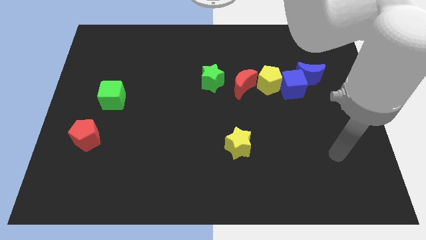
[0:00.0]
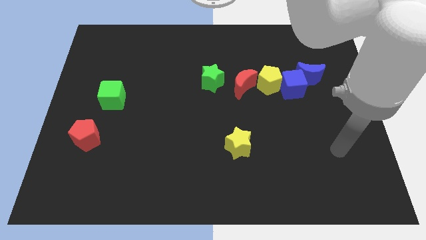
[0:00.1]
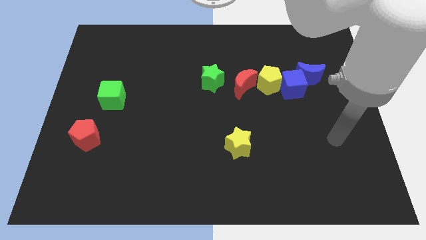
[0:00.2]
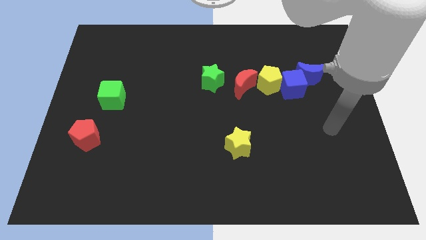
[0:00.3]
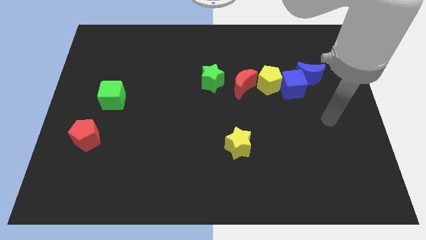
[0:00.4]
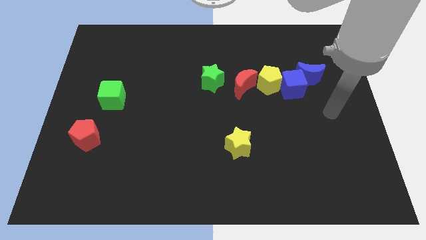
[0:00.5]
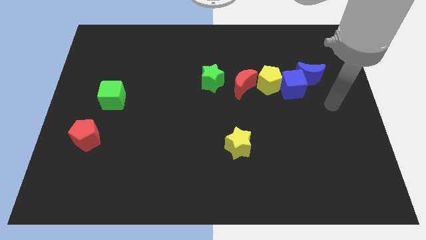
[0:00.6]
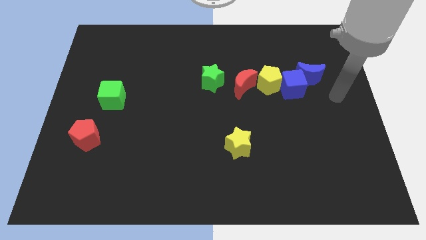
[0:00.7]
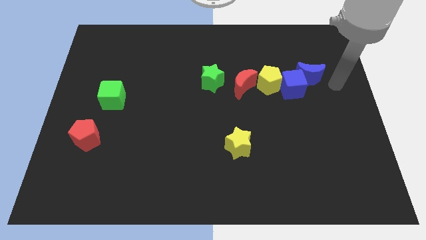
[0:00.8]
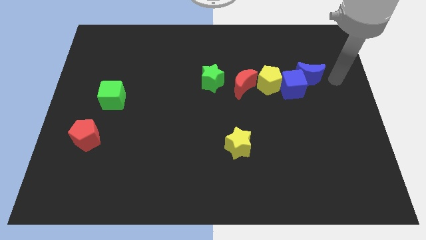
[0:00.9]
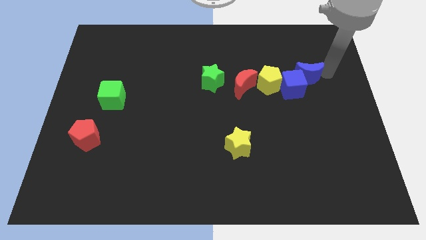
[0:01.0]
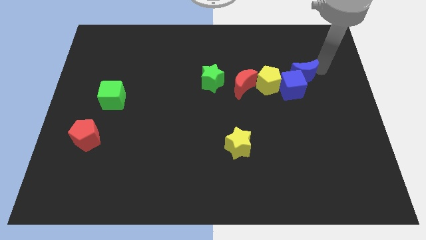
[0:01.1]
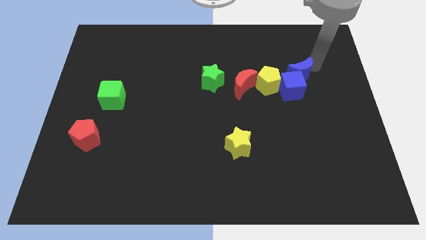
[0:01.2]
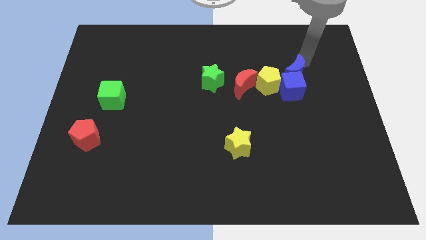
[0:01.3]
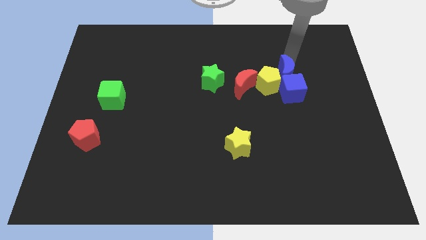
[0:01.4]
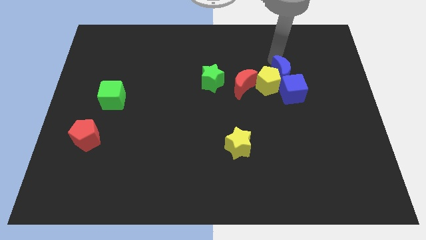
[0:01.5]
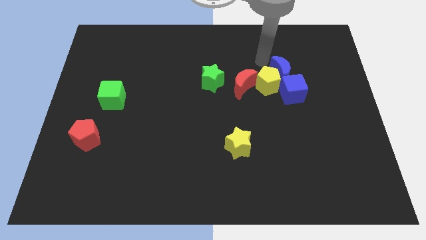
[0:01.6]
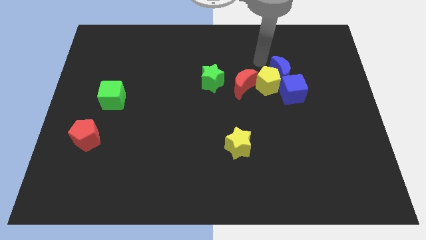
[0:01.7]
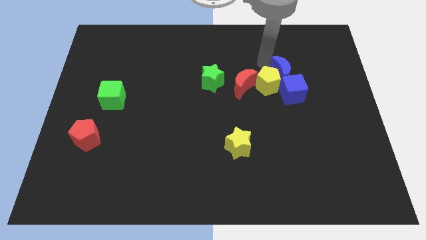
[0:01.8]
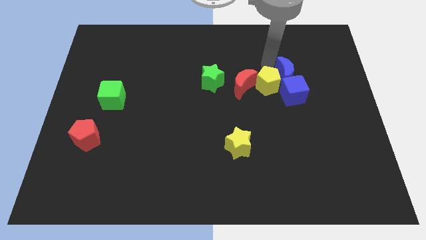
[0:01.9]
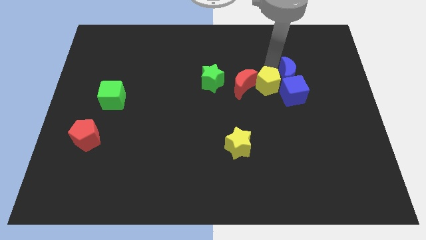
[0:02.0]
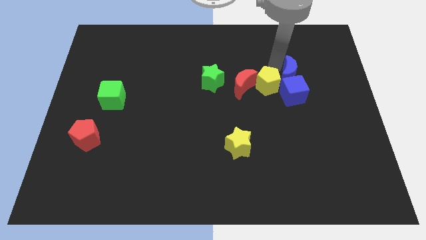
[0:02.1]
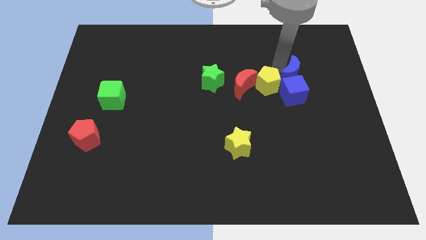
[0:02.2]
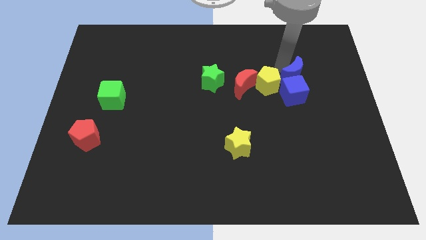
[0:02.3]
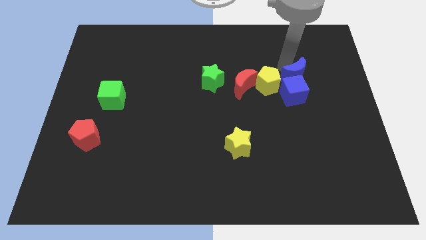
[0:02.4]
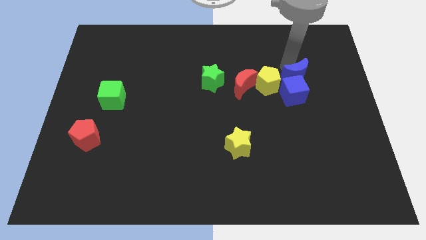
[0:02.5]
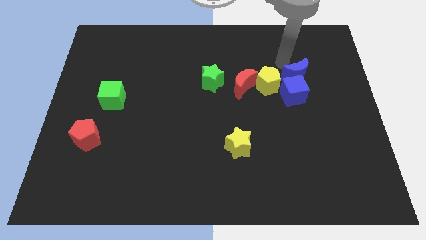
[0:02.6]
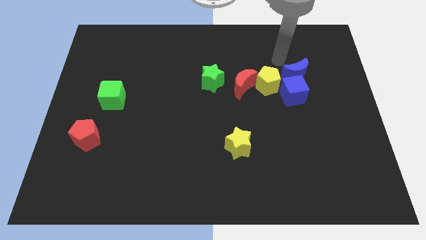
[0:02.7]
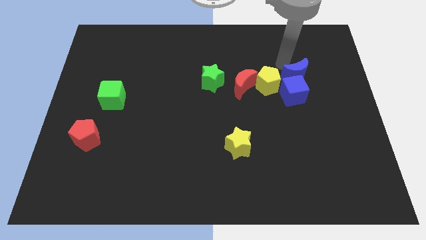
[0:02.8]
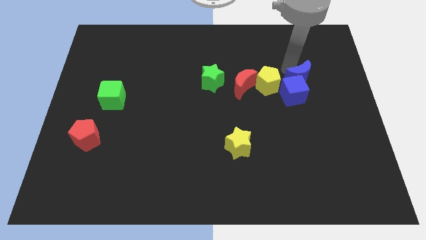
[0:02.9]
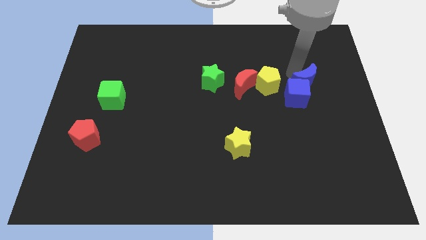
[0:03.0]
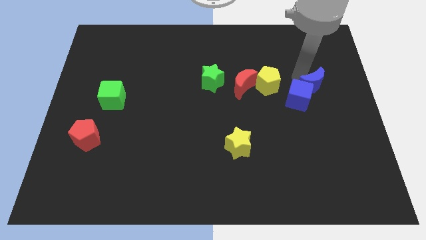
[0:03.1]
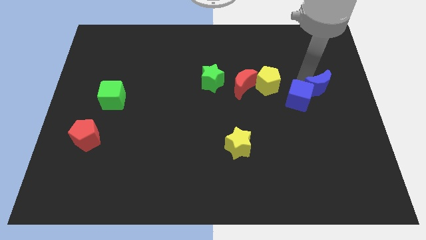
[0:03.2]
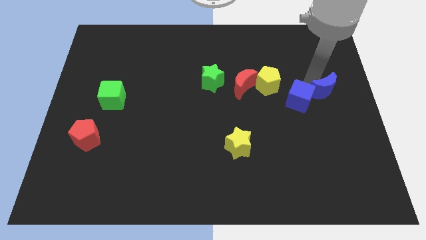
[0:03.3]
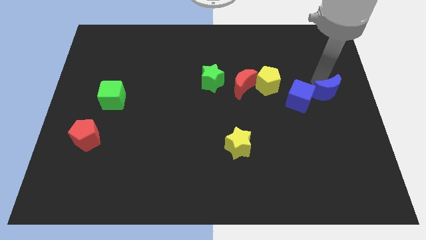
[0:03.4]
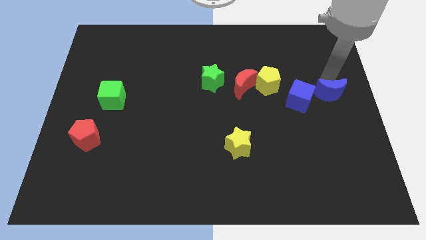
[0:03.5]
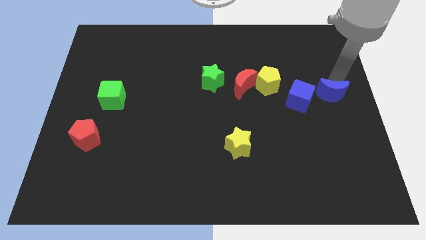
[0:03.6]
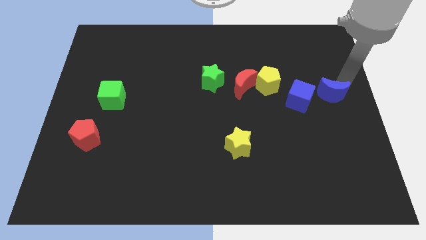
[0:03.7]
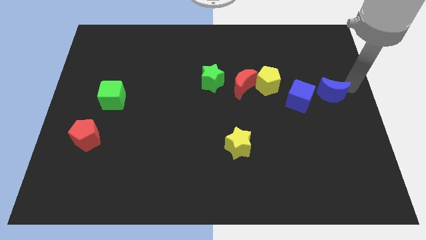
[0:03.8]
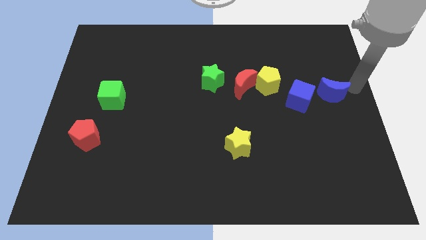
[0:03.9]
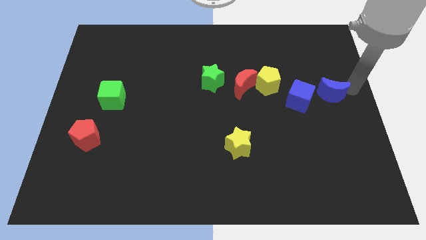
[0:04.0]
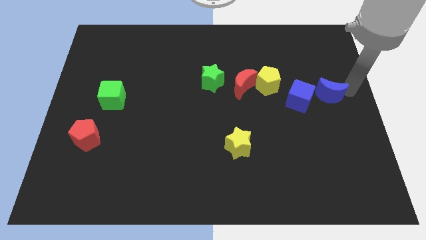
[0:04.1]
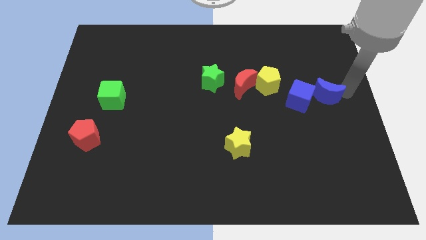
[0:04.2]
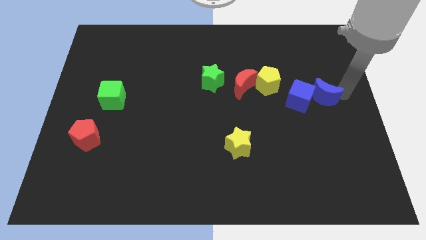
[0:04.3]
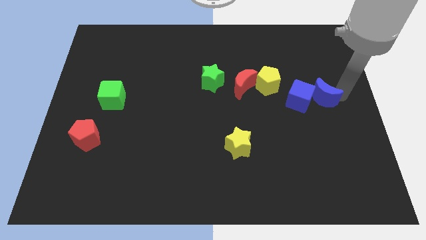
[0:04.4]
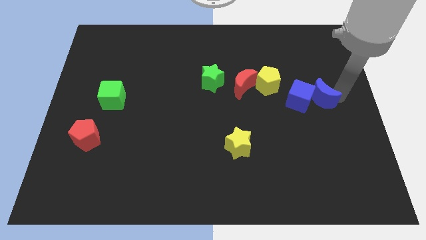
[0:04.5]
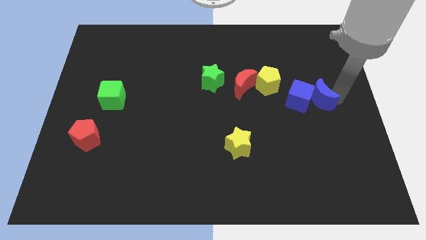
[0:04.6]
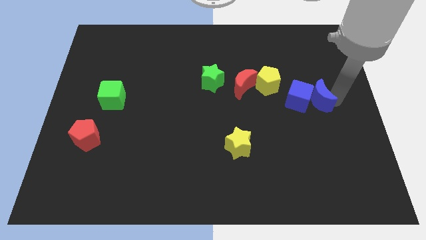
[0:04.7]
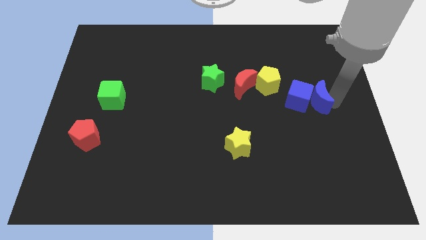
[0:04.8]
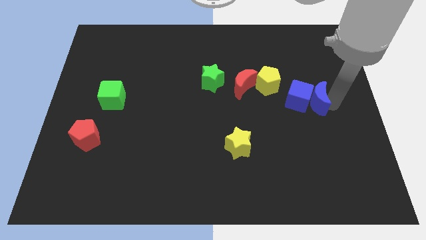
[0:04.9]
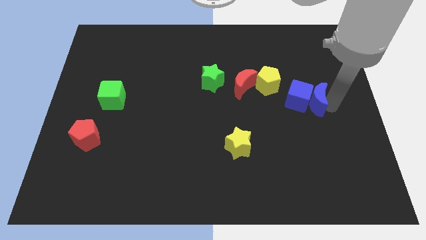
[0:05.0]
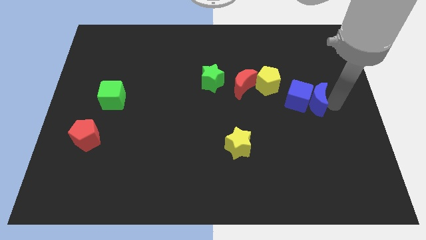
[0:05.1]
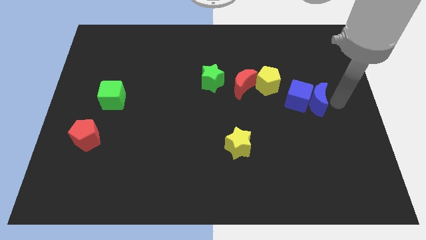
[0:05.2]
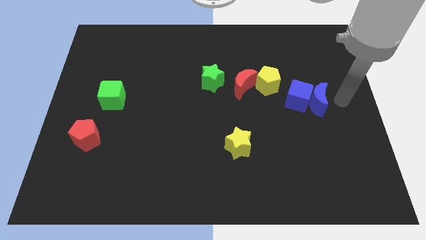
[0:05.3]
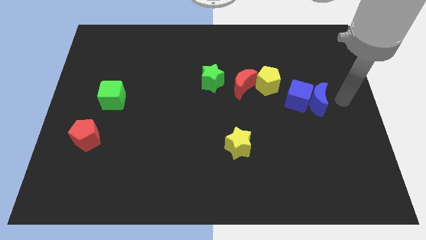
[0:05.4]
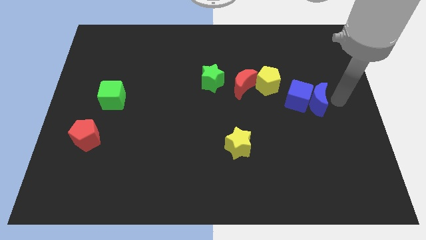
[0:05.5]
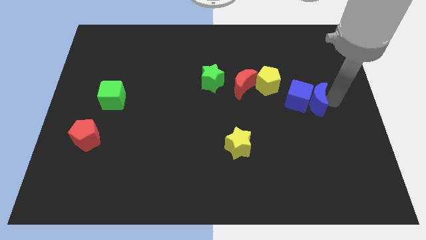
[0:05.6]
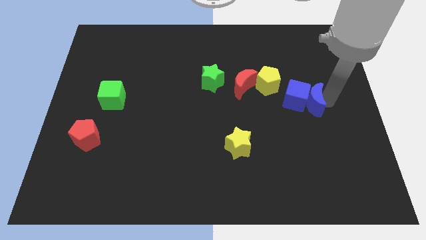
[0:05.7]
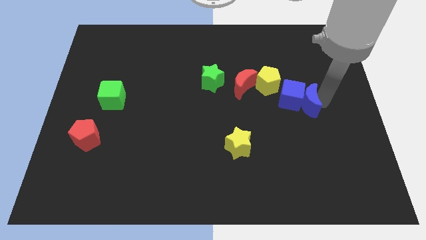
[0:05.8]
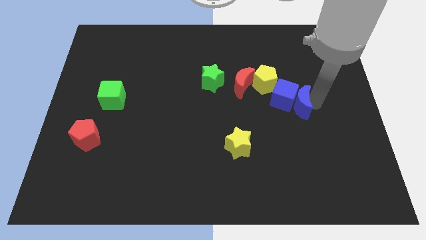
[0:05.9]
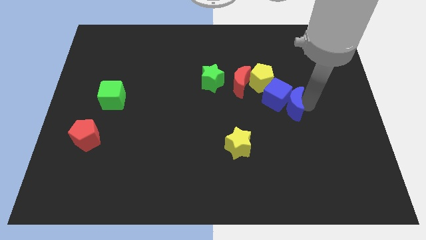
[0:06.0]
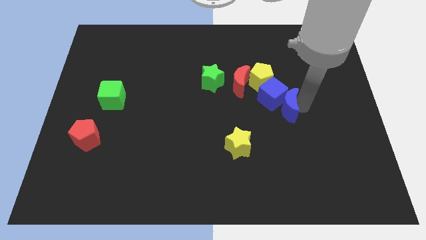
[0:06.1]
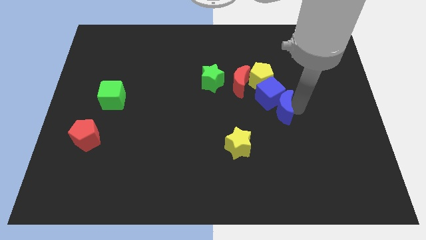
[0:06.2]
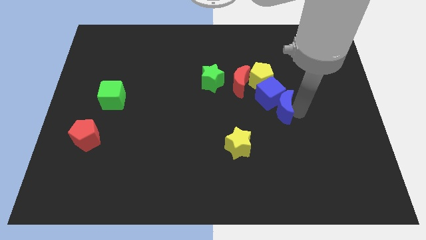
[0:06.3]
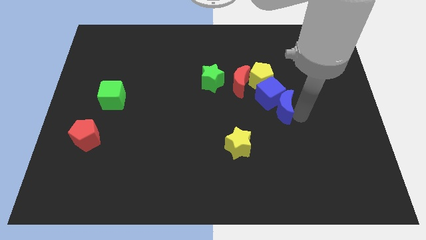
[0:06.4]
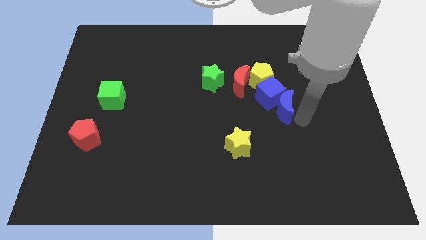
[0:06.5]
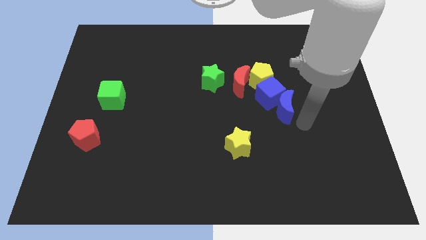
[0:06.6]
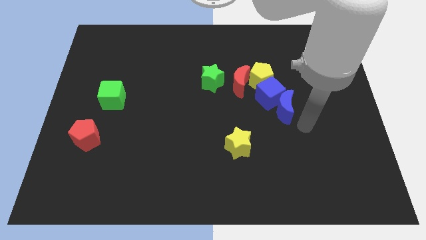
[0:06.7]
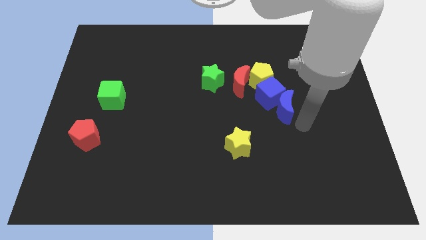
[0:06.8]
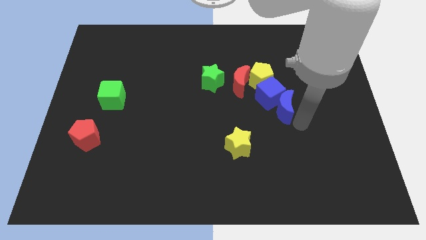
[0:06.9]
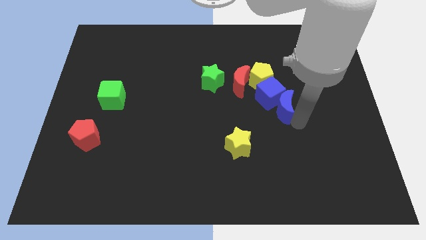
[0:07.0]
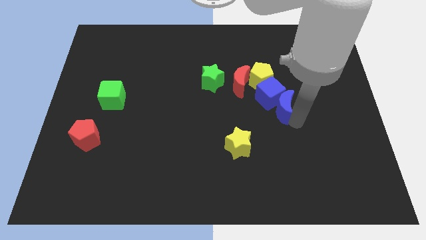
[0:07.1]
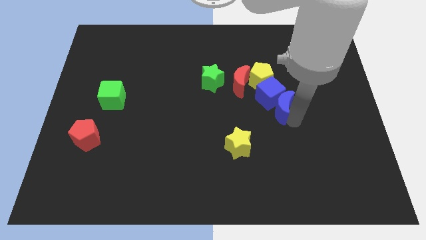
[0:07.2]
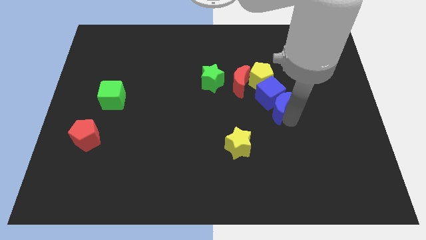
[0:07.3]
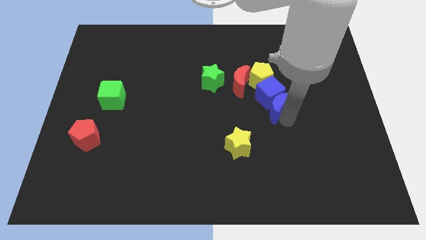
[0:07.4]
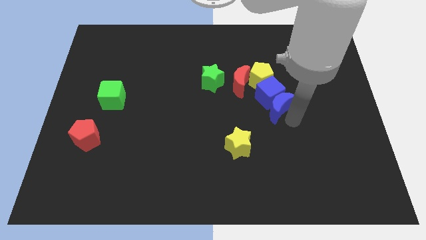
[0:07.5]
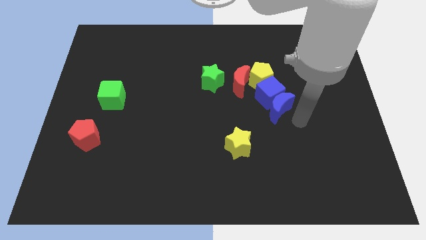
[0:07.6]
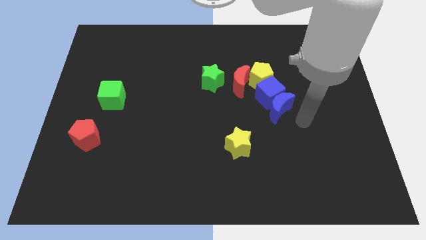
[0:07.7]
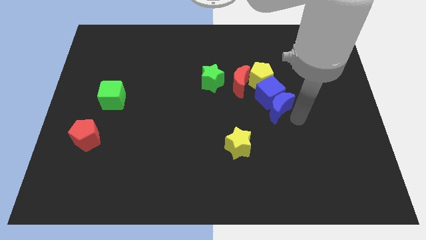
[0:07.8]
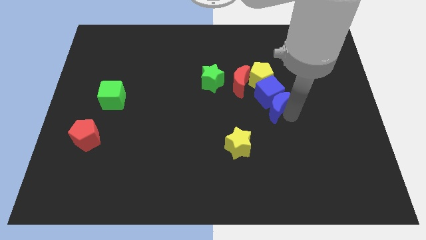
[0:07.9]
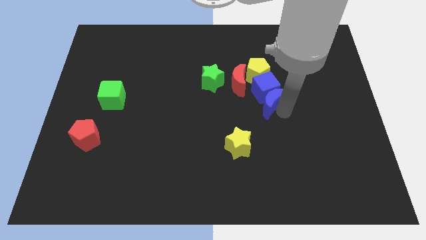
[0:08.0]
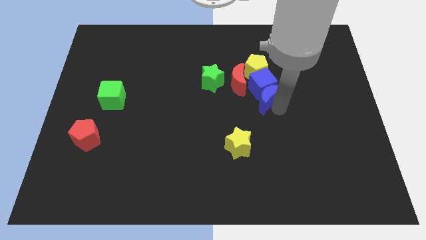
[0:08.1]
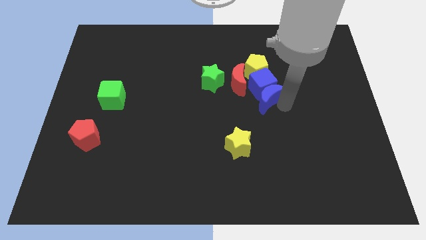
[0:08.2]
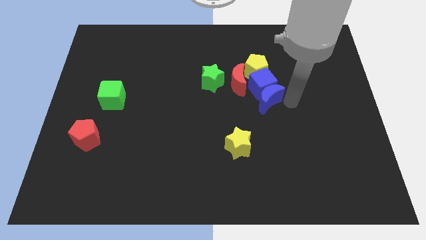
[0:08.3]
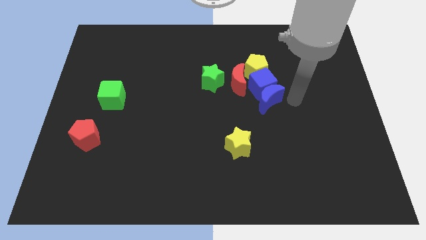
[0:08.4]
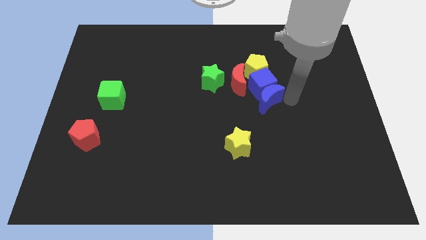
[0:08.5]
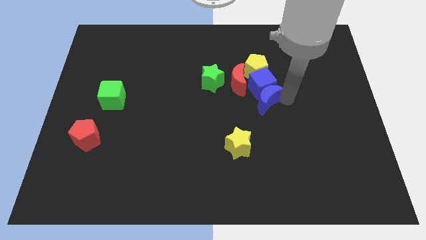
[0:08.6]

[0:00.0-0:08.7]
slide the blue moon to the middle
